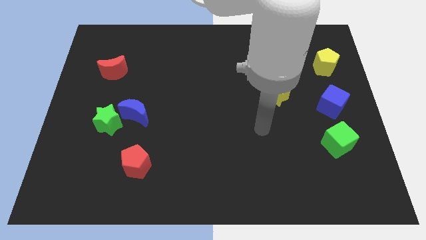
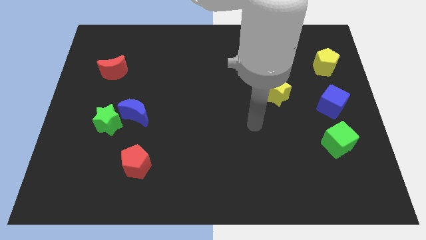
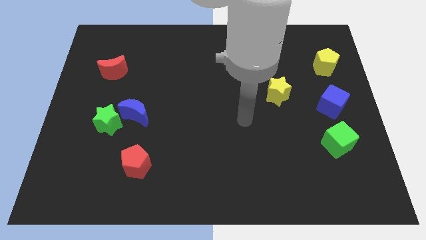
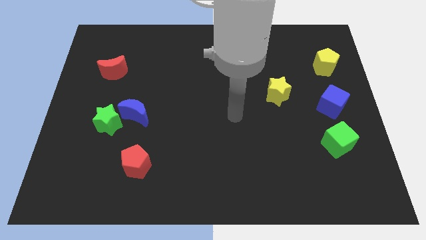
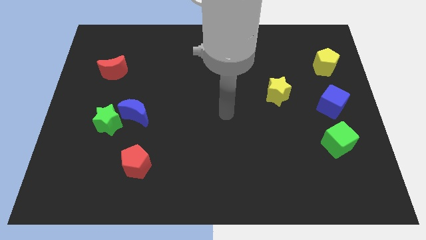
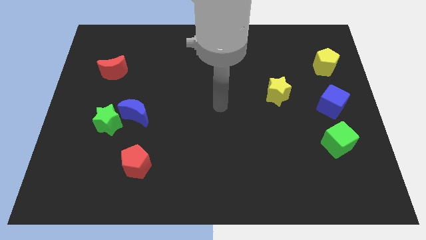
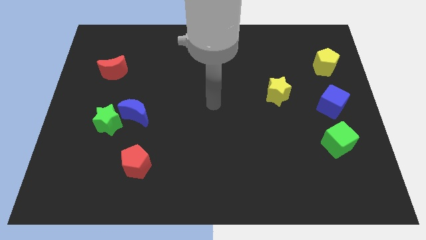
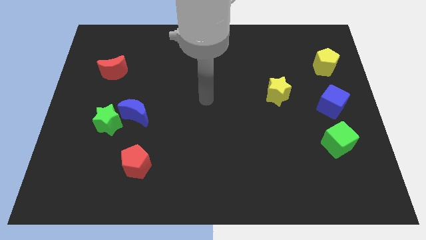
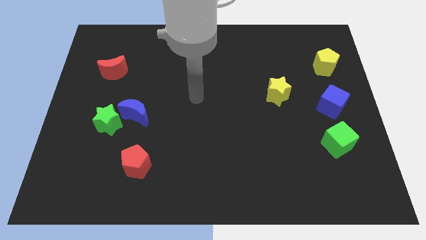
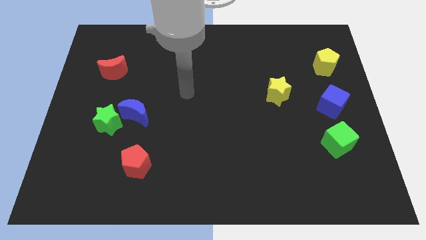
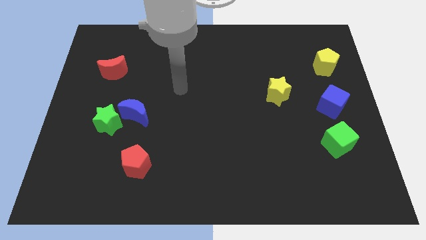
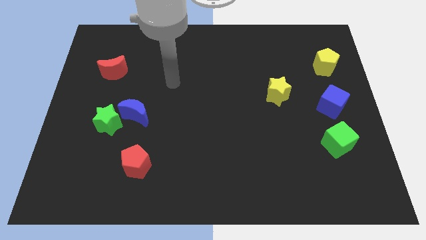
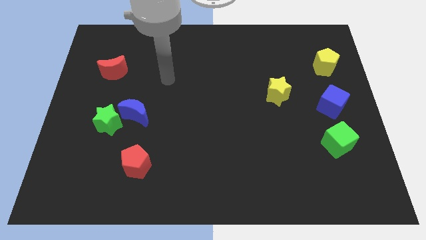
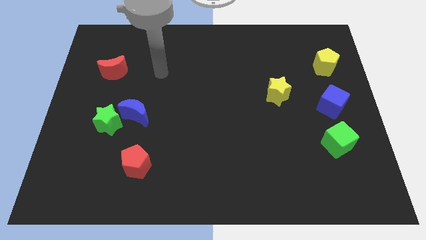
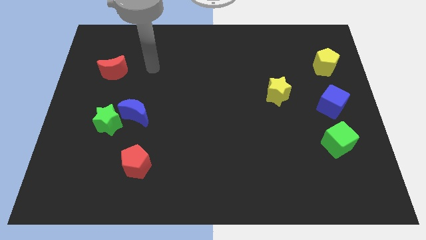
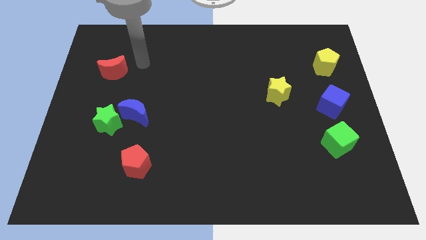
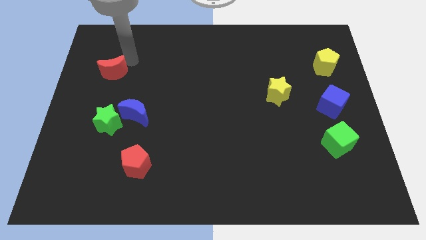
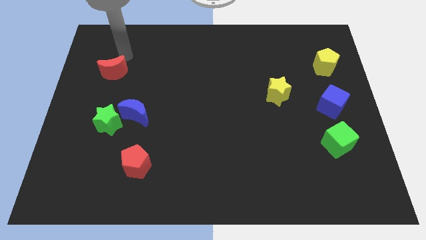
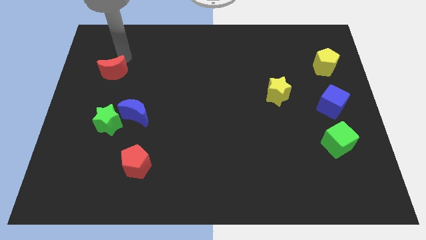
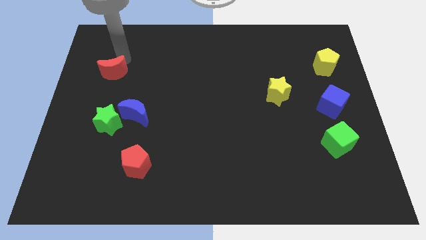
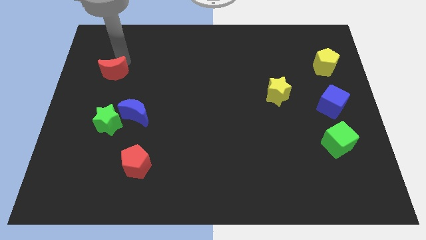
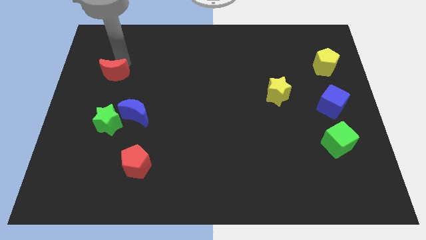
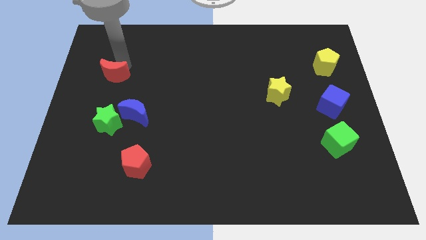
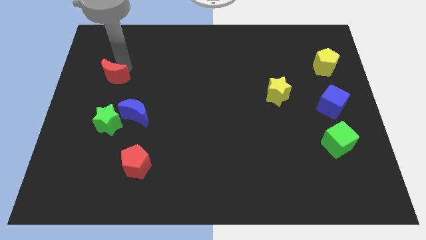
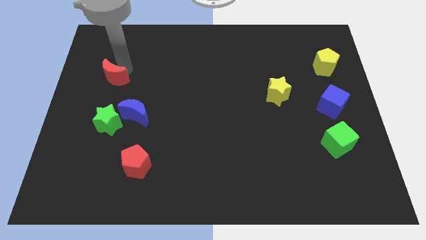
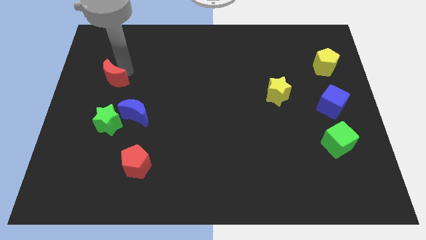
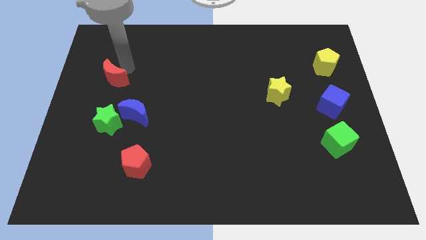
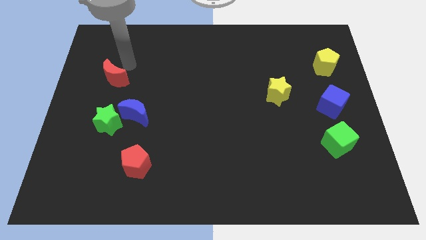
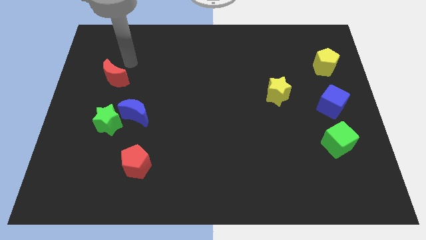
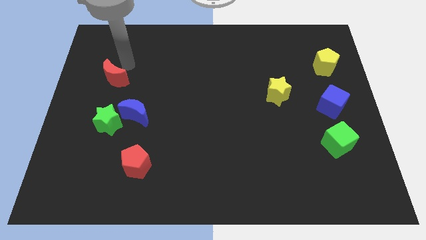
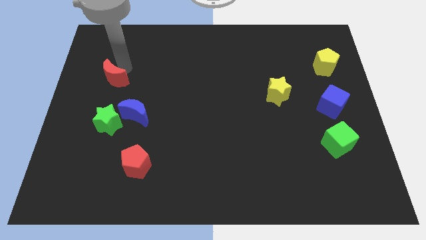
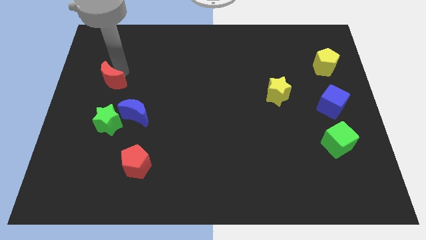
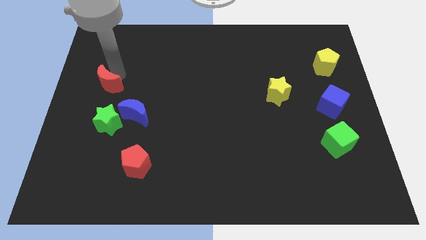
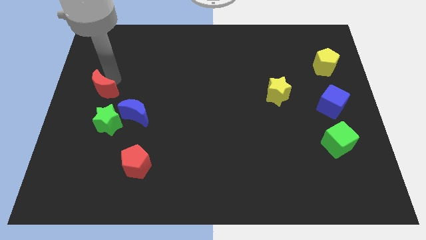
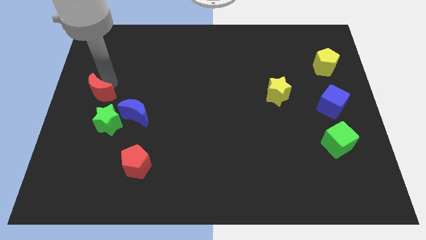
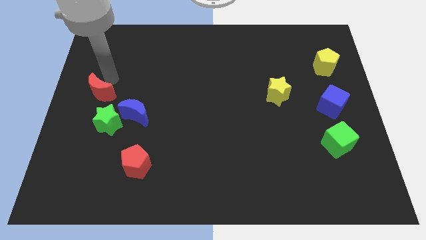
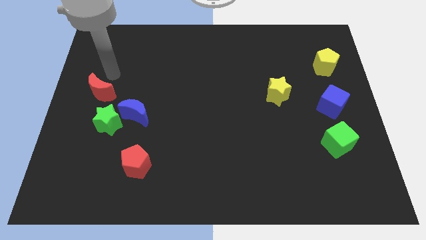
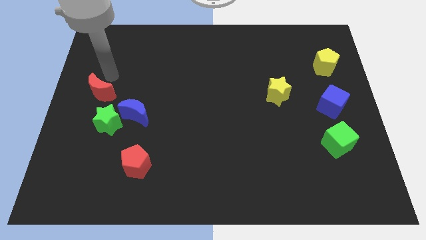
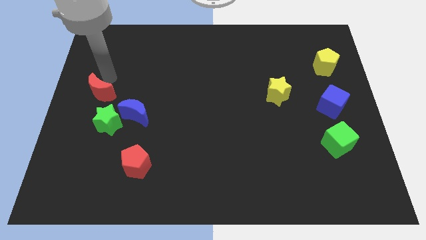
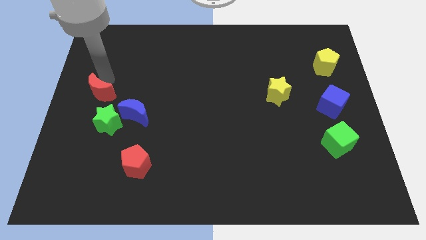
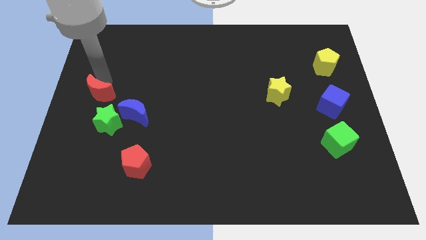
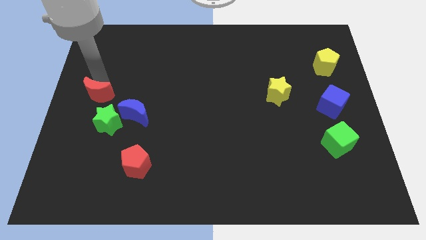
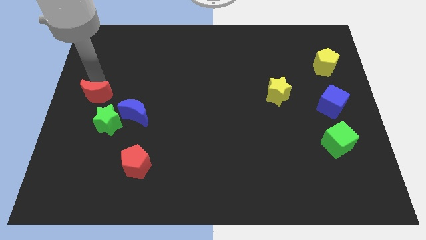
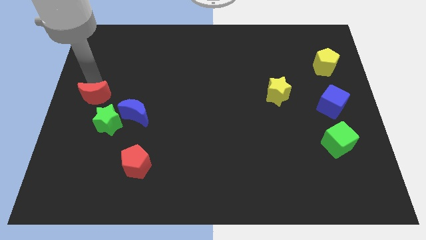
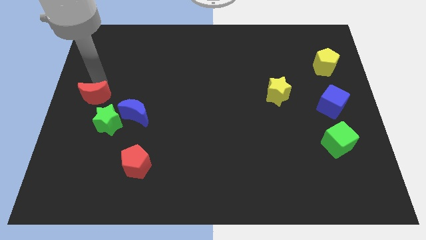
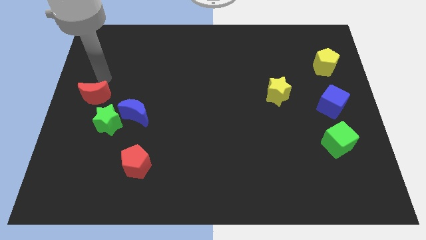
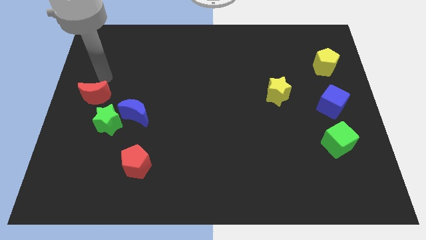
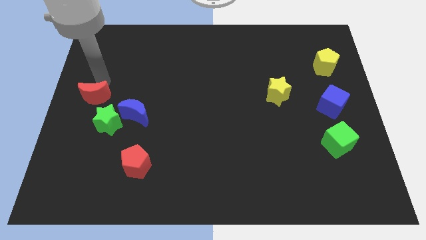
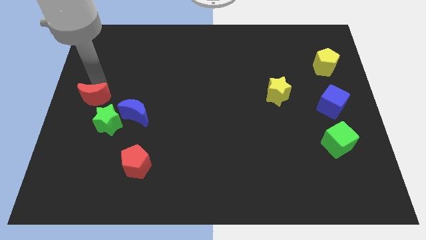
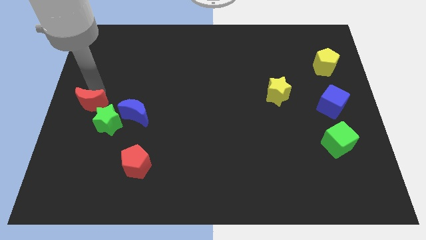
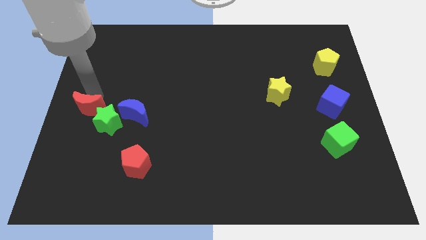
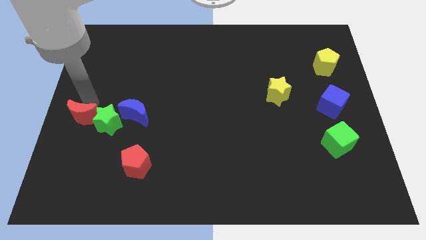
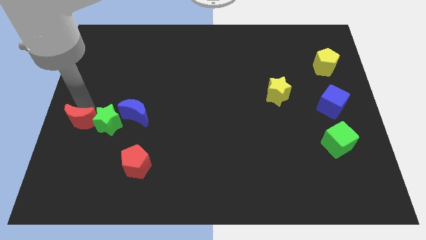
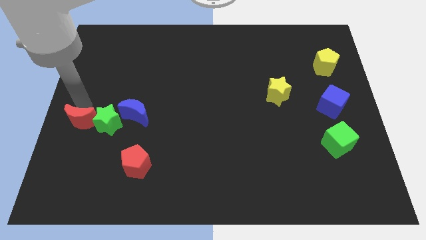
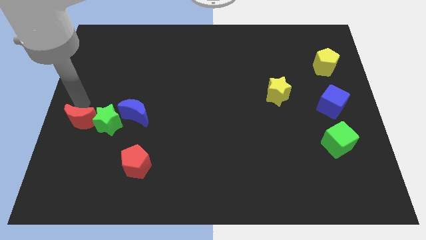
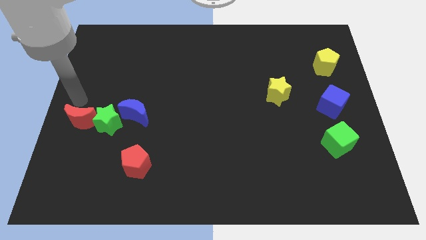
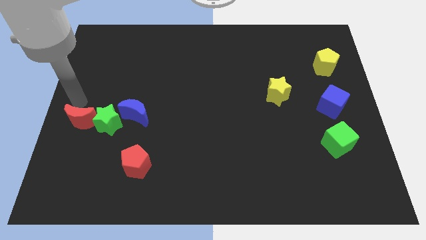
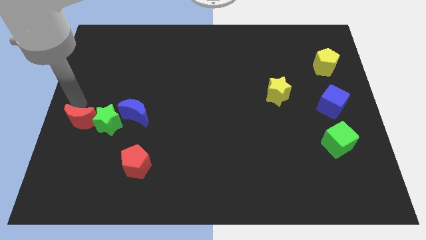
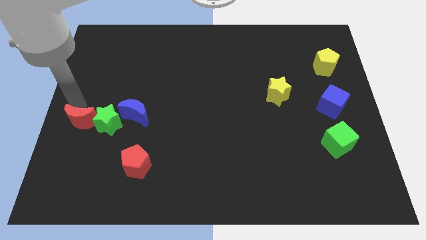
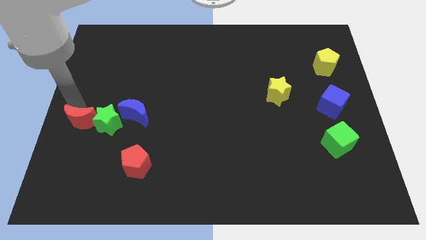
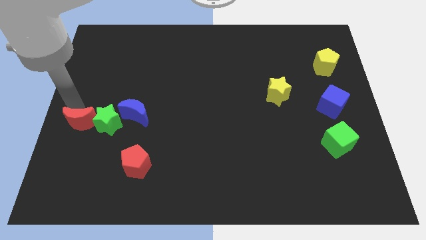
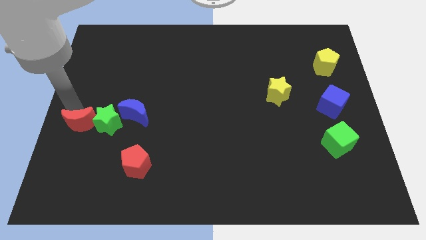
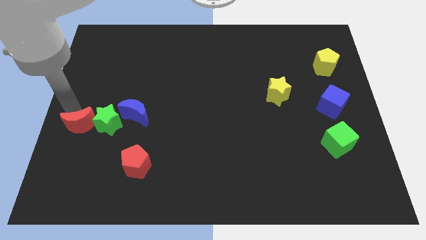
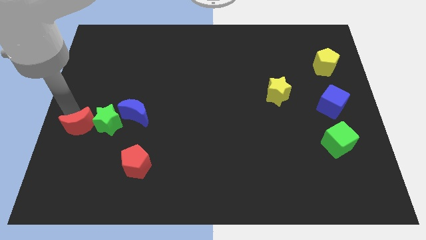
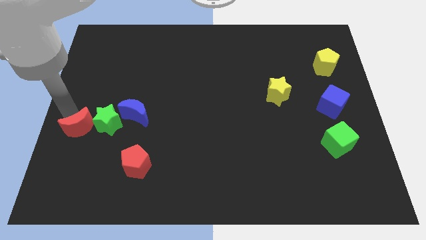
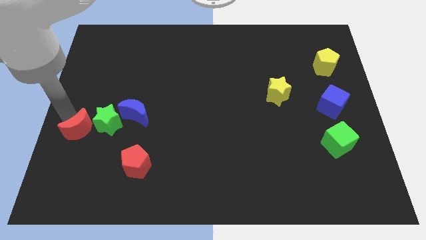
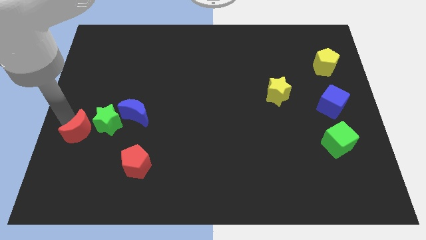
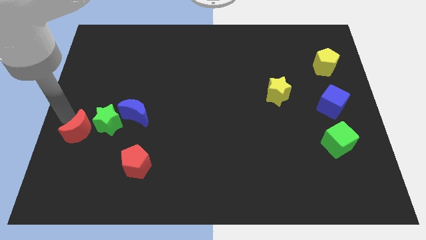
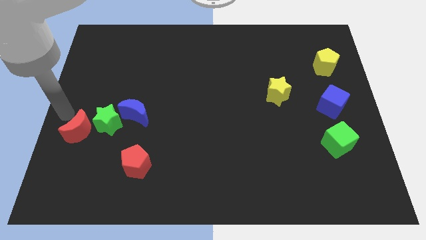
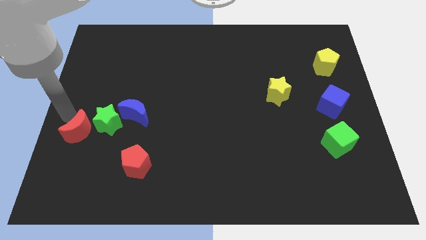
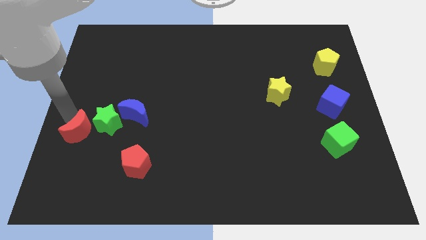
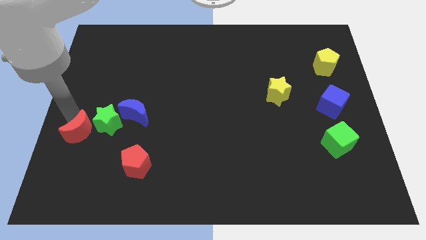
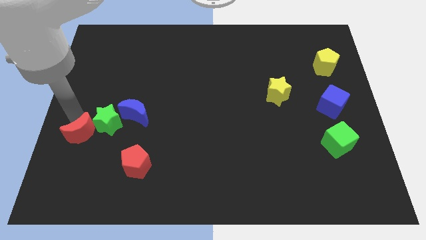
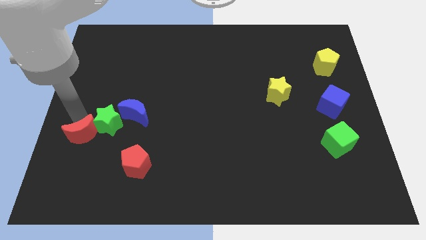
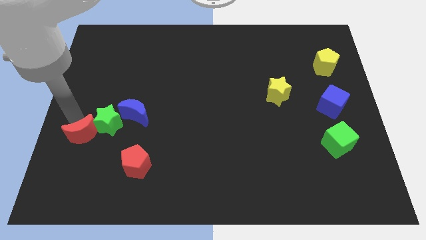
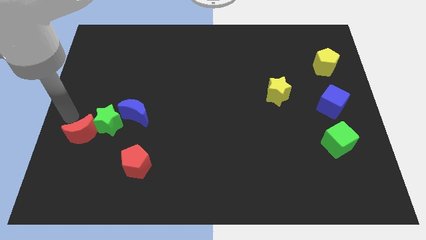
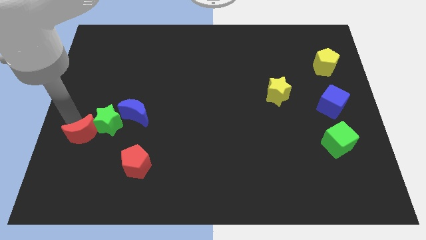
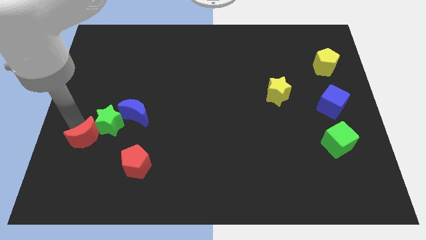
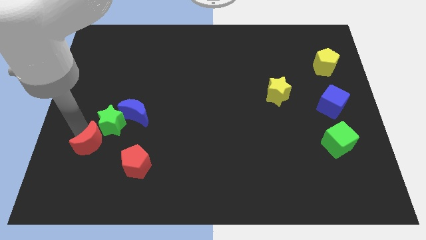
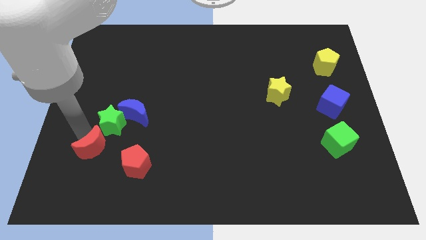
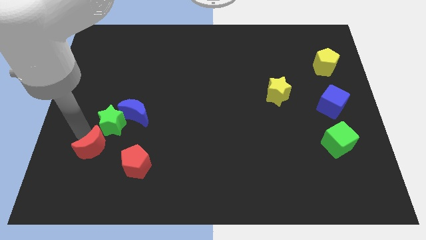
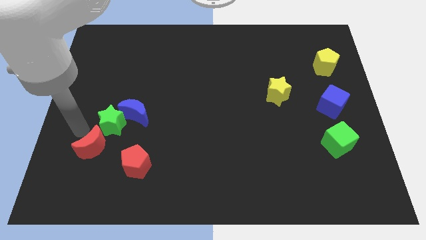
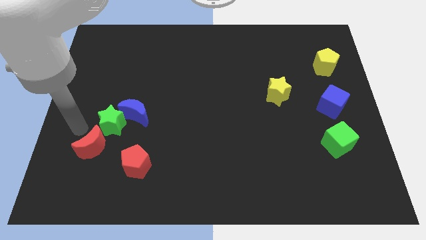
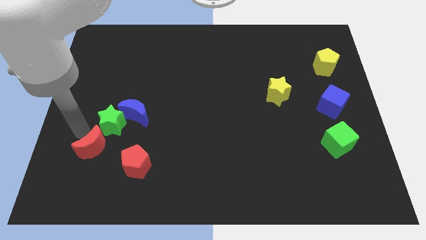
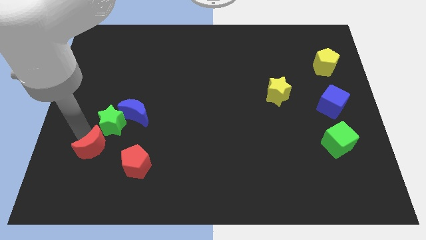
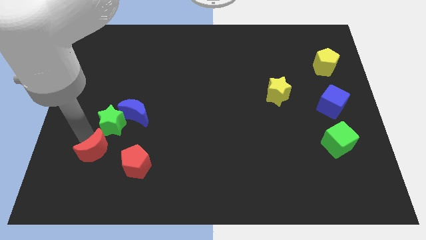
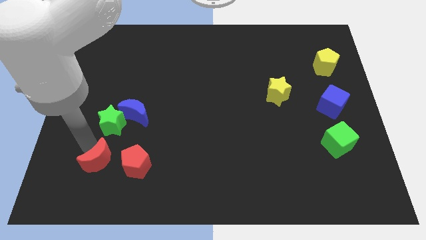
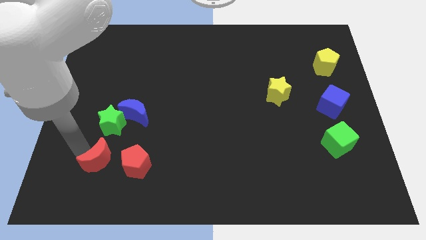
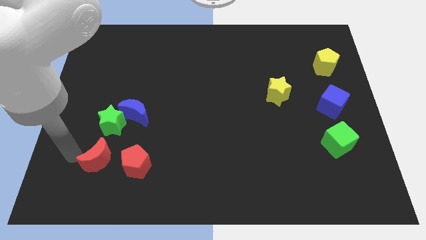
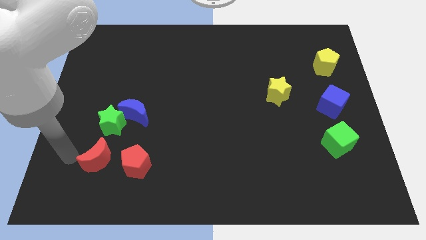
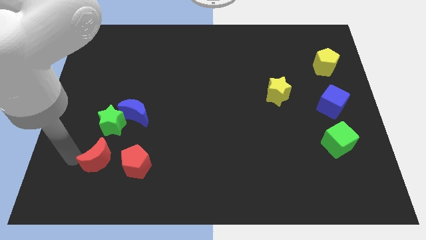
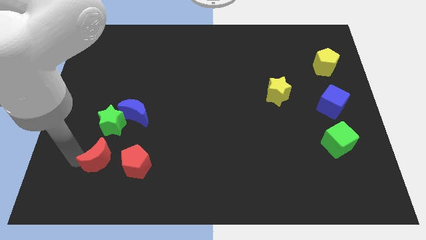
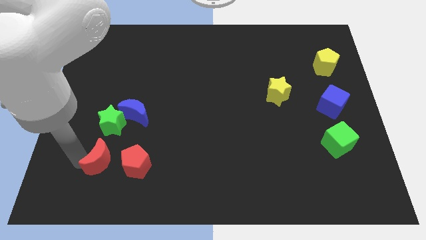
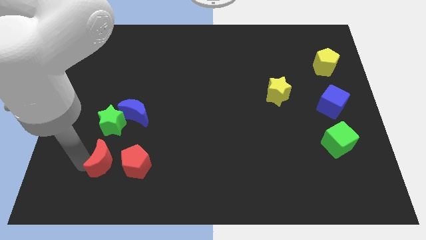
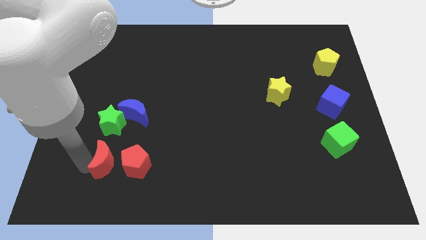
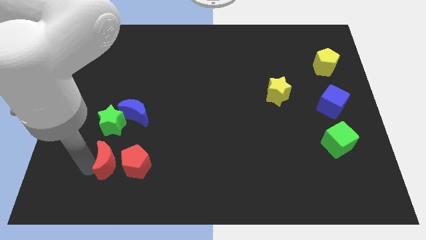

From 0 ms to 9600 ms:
put the red moon towards the red pentagon
